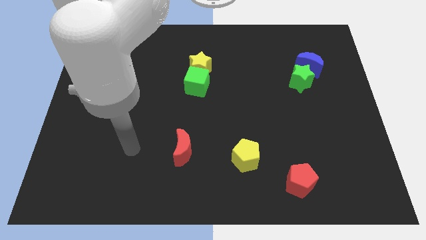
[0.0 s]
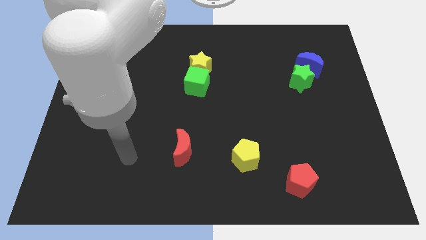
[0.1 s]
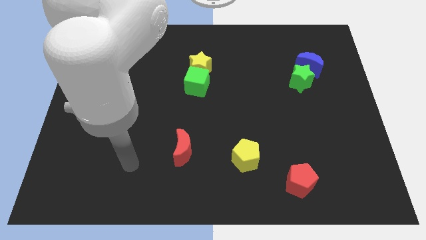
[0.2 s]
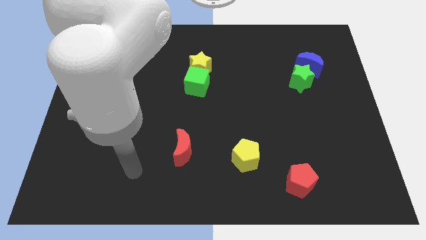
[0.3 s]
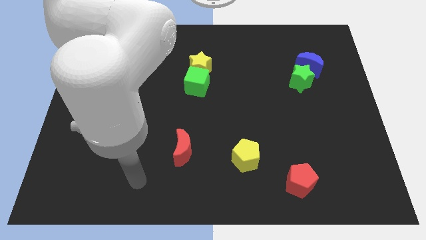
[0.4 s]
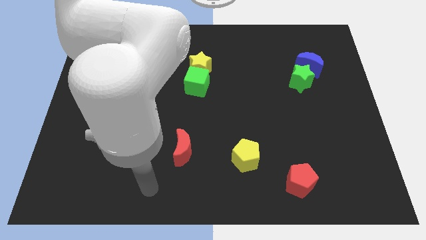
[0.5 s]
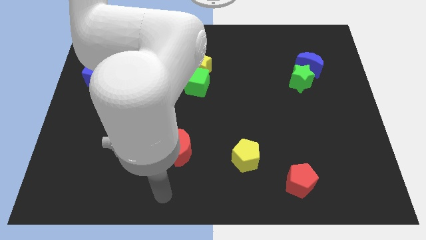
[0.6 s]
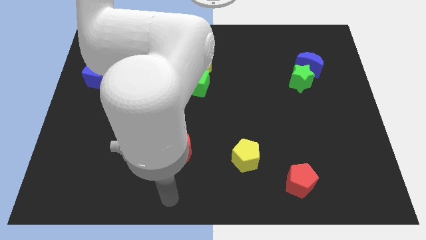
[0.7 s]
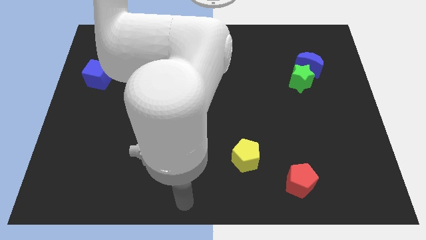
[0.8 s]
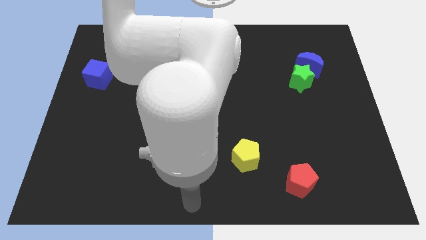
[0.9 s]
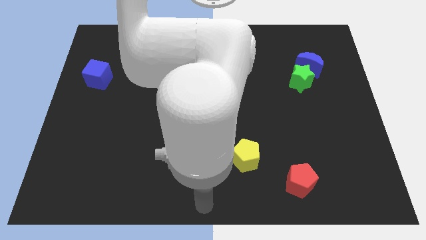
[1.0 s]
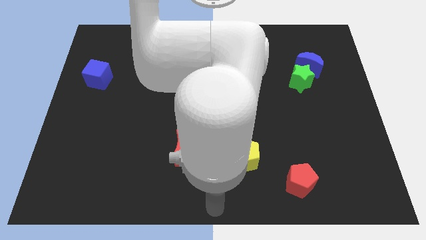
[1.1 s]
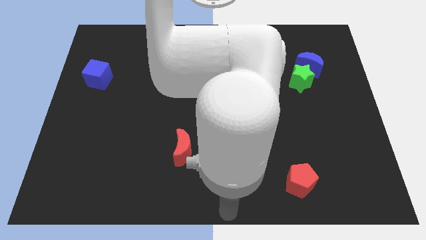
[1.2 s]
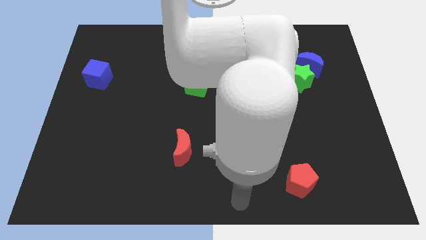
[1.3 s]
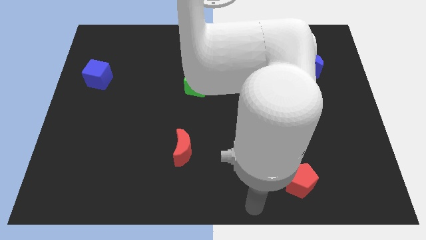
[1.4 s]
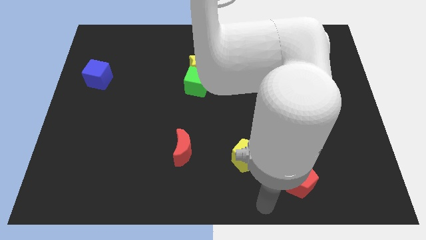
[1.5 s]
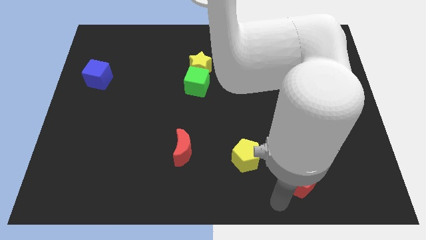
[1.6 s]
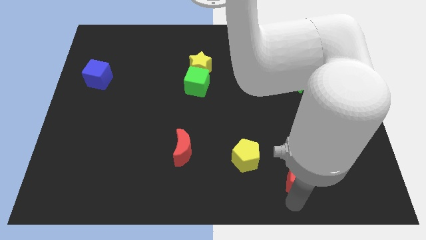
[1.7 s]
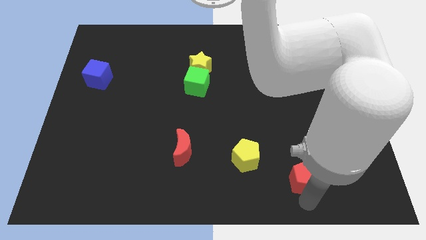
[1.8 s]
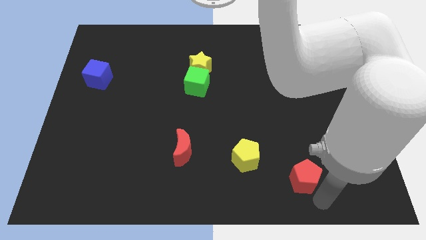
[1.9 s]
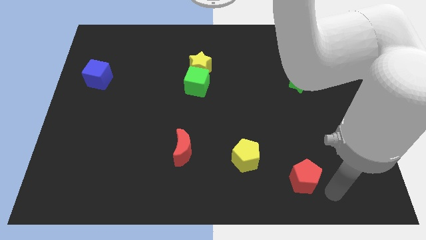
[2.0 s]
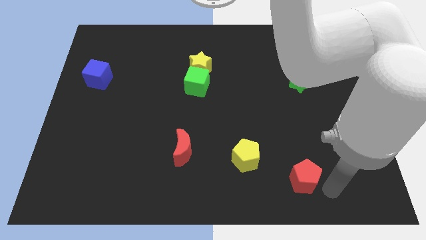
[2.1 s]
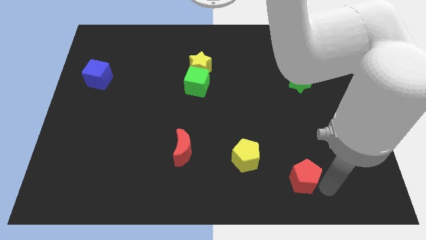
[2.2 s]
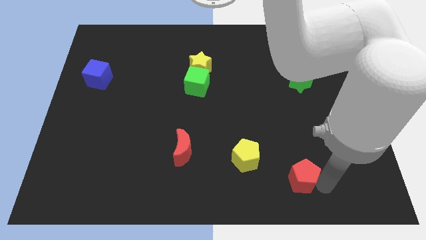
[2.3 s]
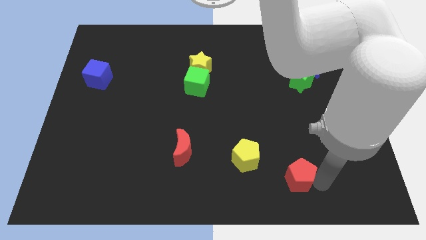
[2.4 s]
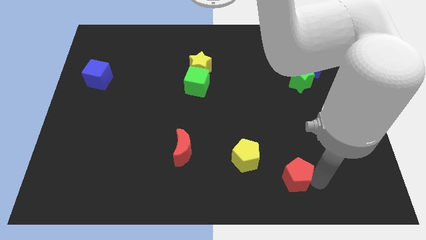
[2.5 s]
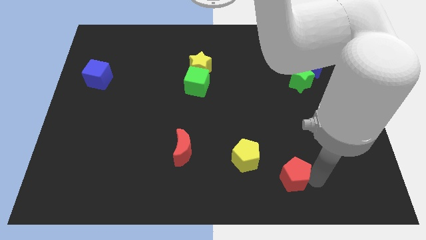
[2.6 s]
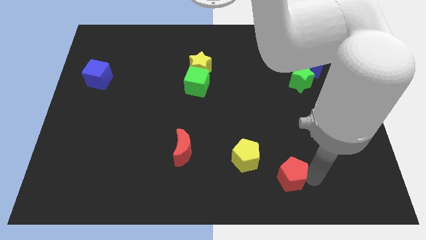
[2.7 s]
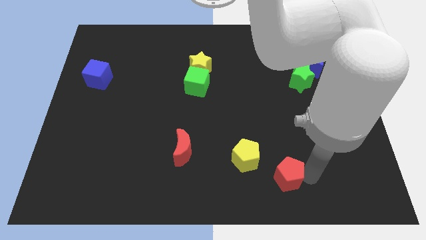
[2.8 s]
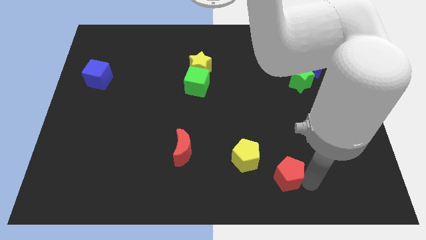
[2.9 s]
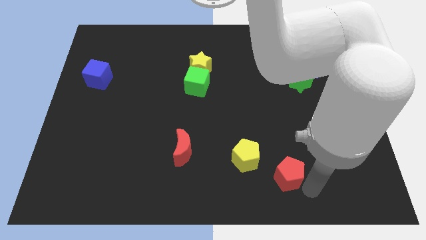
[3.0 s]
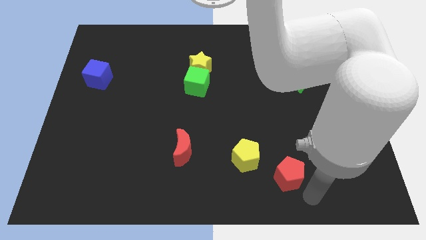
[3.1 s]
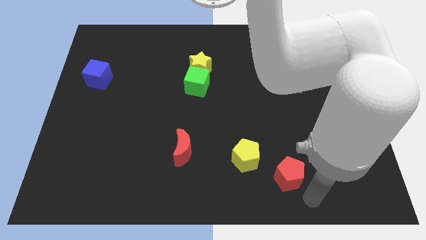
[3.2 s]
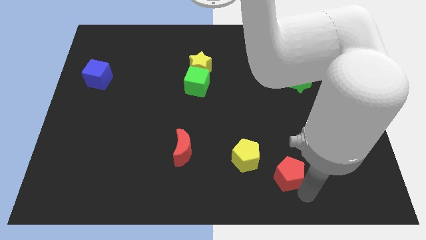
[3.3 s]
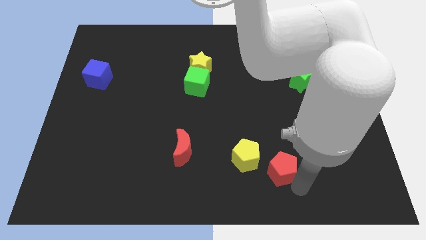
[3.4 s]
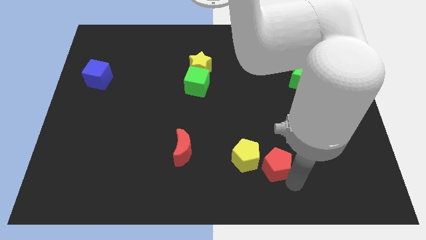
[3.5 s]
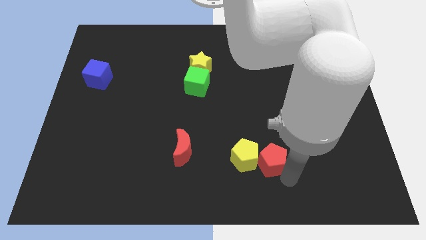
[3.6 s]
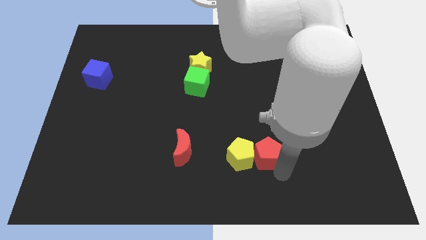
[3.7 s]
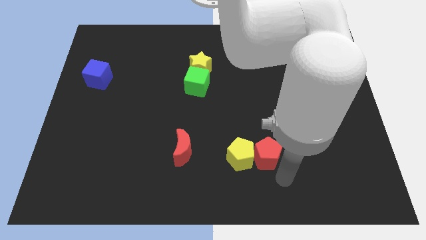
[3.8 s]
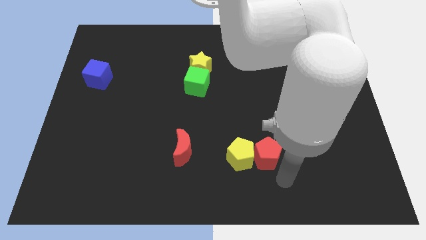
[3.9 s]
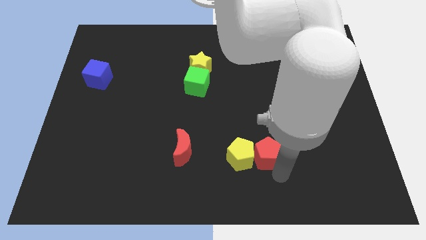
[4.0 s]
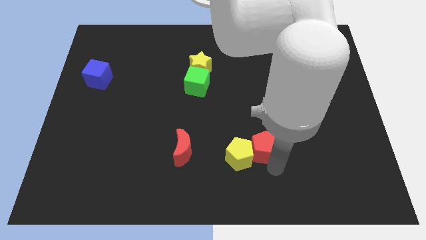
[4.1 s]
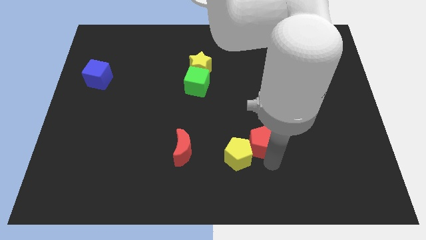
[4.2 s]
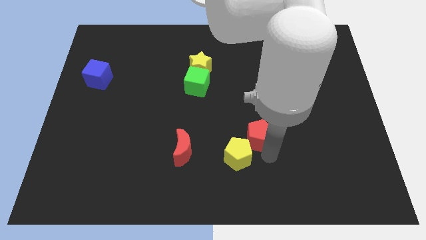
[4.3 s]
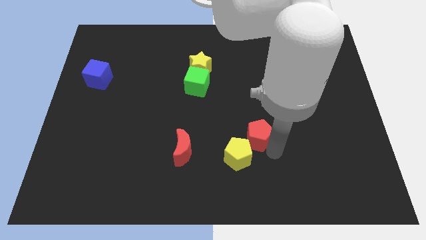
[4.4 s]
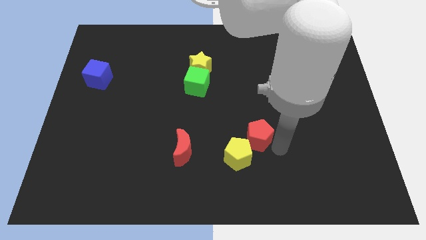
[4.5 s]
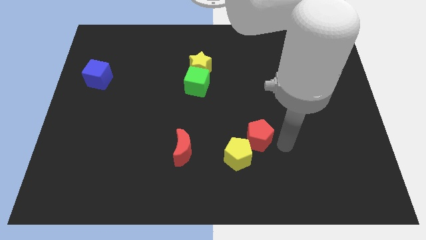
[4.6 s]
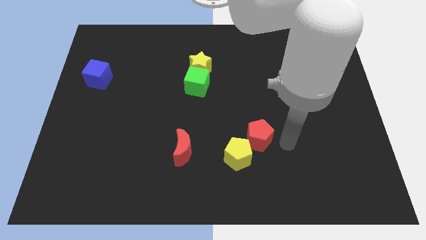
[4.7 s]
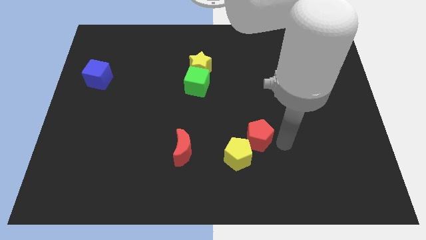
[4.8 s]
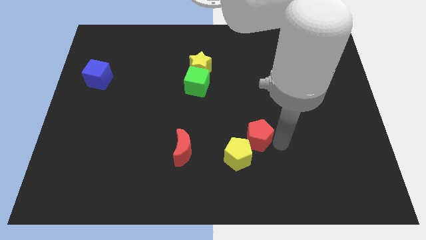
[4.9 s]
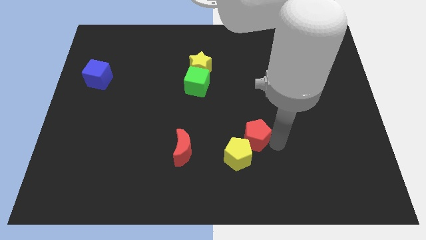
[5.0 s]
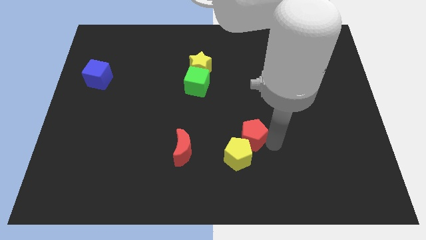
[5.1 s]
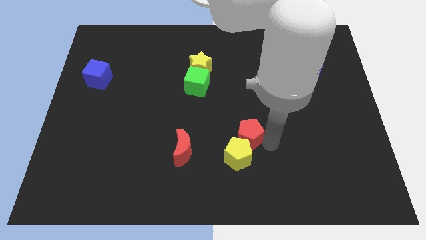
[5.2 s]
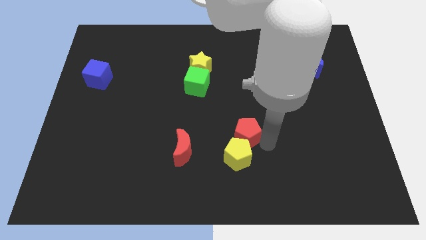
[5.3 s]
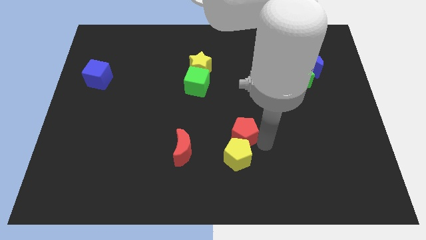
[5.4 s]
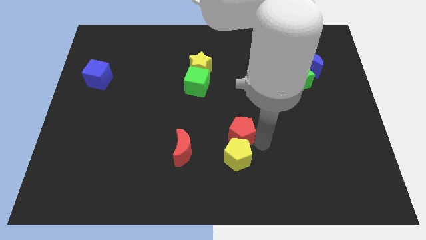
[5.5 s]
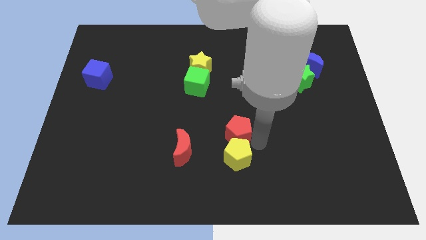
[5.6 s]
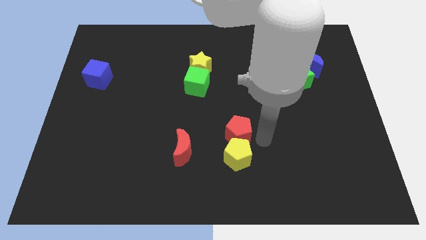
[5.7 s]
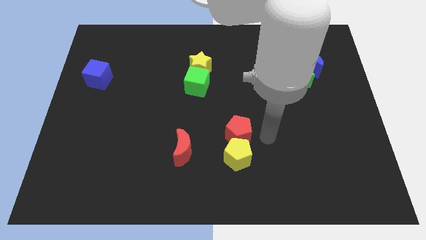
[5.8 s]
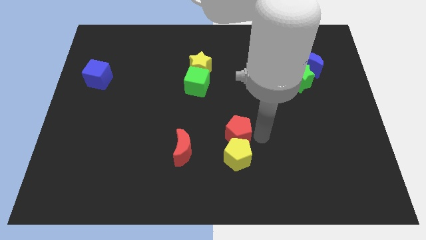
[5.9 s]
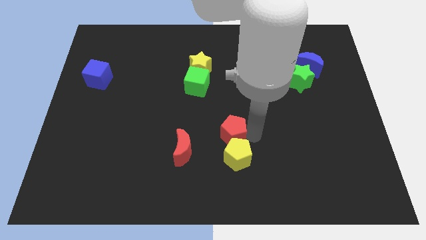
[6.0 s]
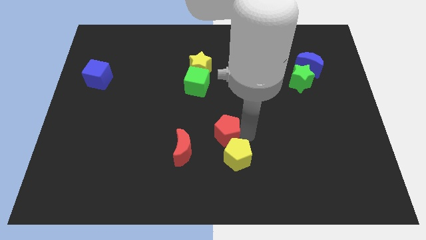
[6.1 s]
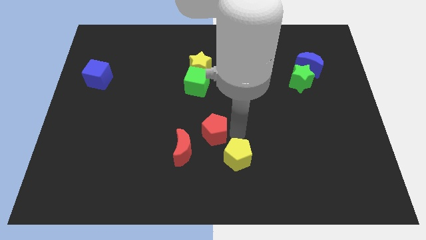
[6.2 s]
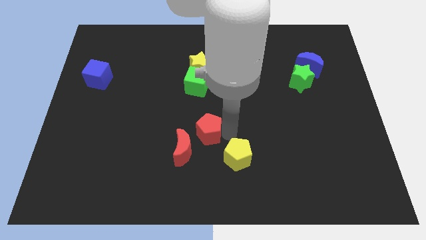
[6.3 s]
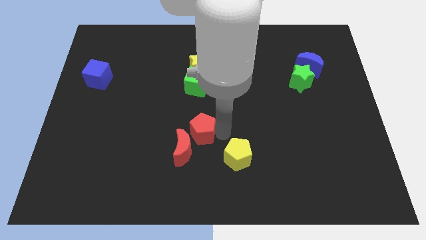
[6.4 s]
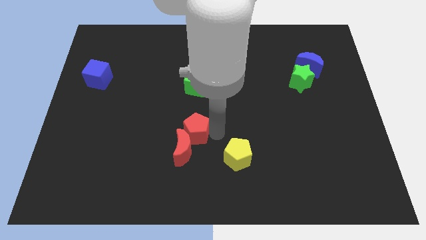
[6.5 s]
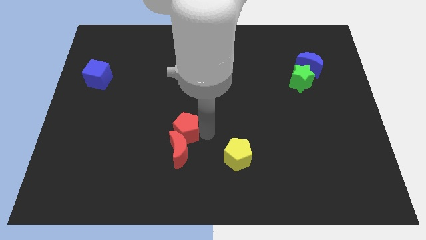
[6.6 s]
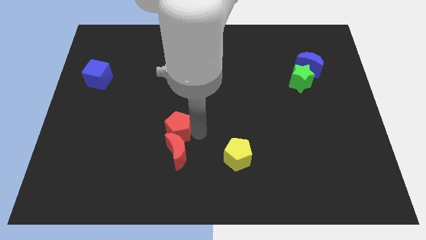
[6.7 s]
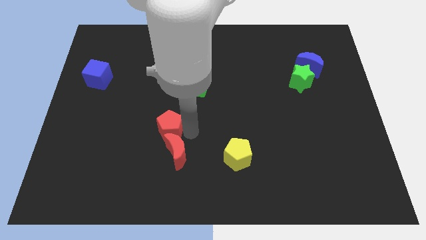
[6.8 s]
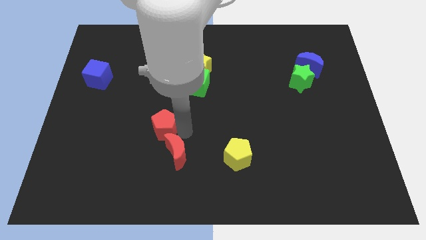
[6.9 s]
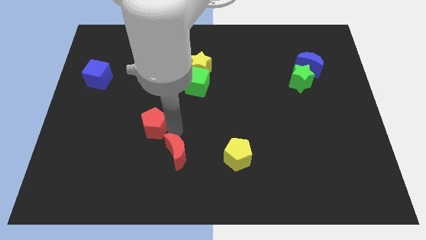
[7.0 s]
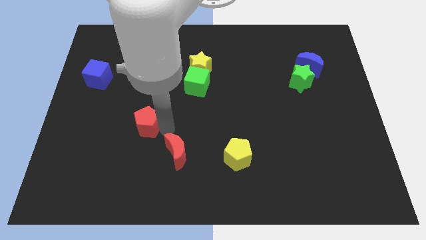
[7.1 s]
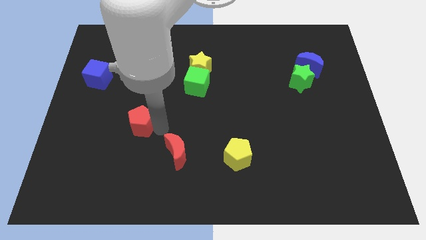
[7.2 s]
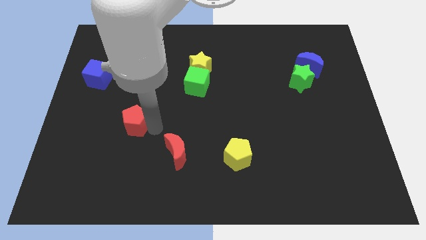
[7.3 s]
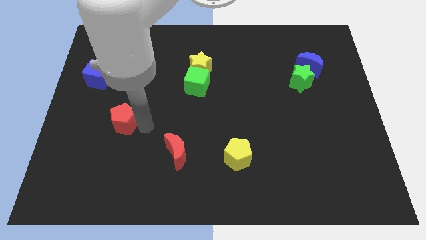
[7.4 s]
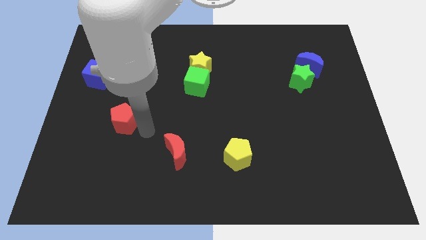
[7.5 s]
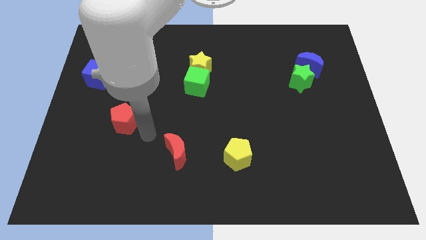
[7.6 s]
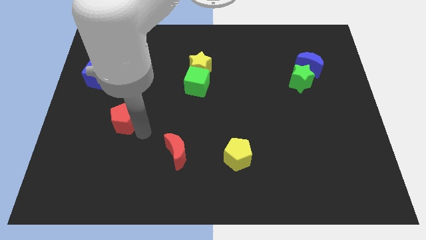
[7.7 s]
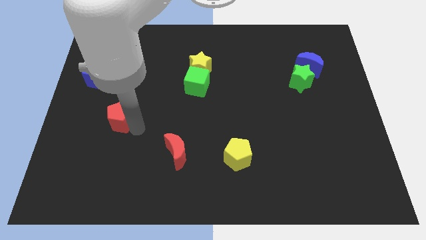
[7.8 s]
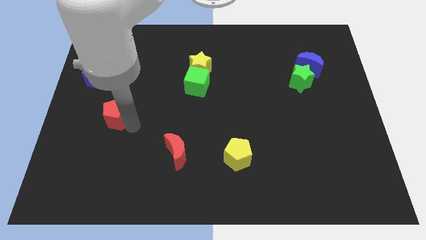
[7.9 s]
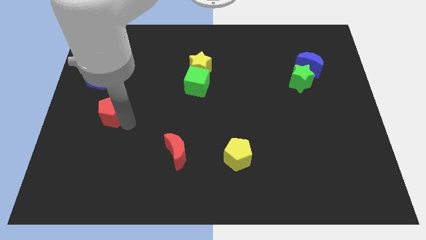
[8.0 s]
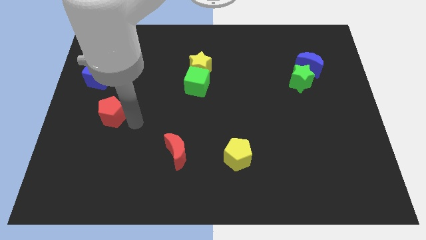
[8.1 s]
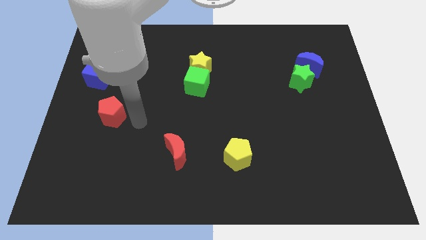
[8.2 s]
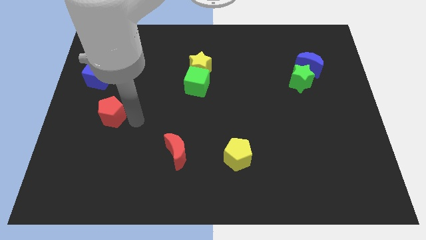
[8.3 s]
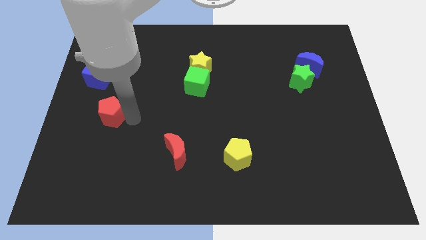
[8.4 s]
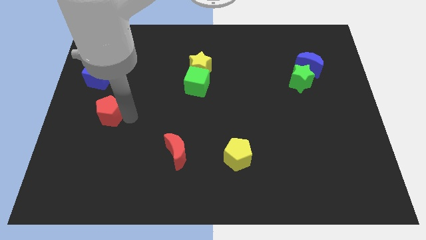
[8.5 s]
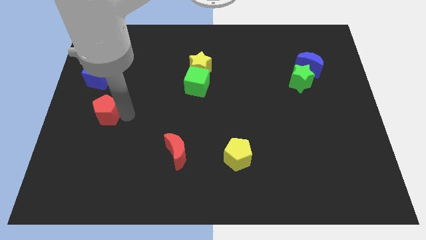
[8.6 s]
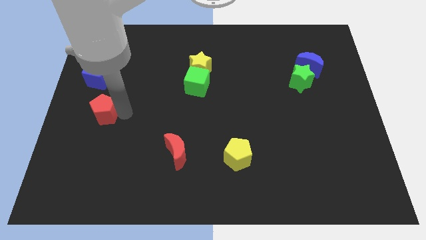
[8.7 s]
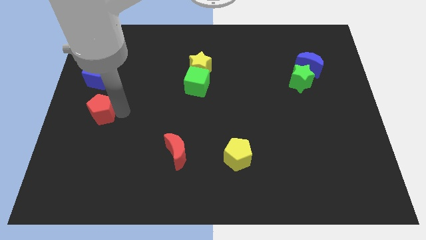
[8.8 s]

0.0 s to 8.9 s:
slide the red pentagon to the left side of the board
